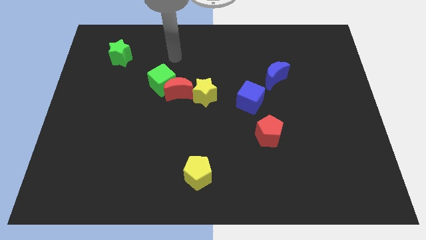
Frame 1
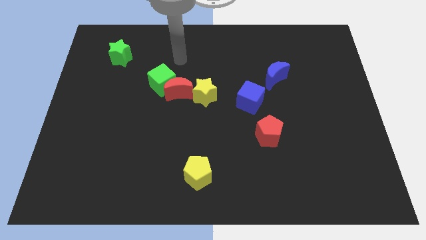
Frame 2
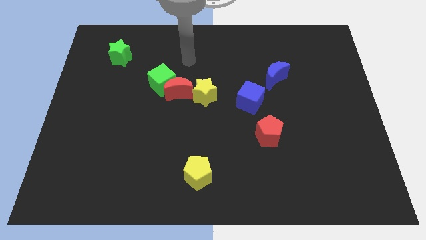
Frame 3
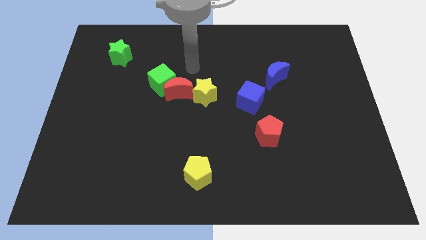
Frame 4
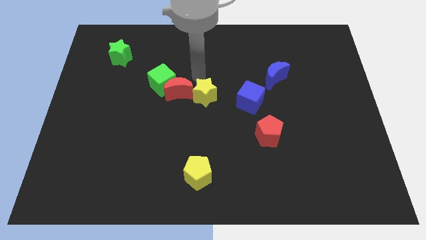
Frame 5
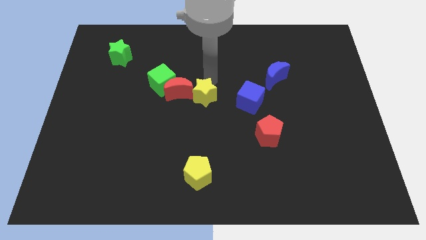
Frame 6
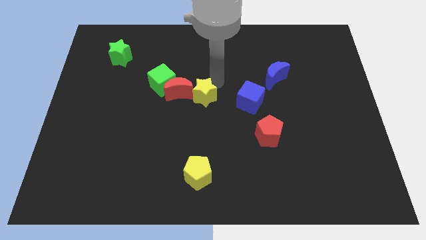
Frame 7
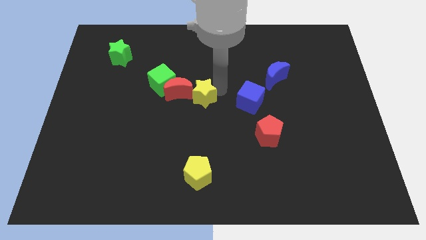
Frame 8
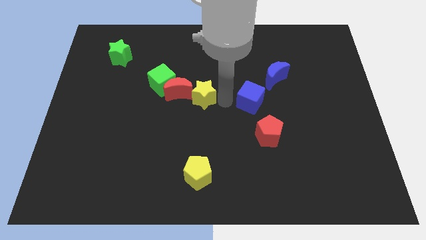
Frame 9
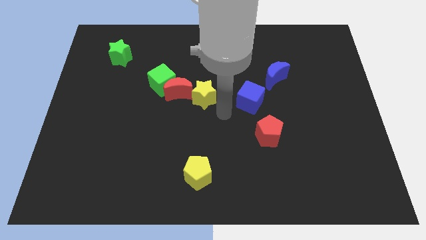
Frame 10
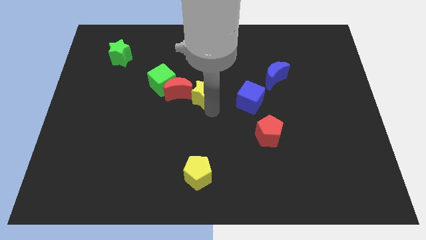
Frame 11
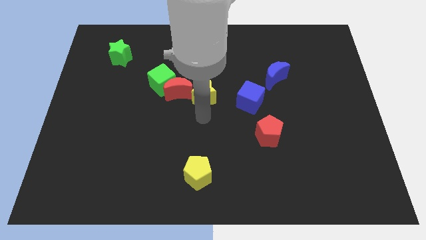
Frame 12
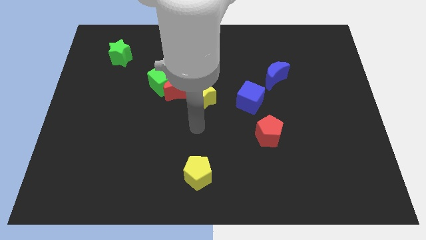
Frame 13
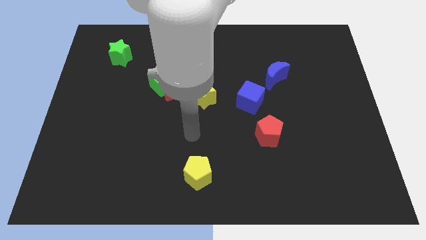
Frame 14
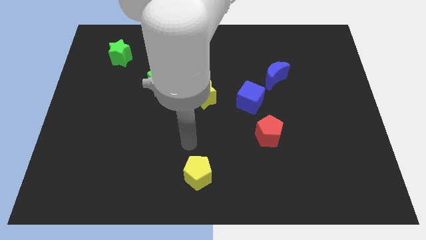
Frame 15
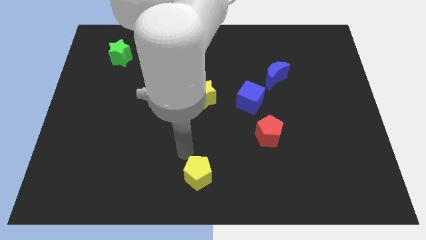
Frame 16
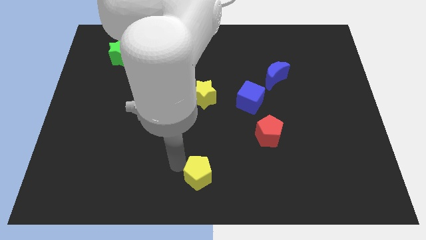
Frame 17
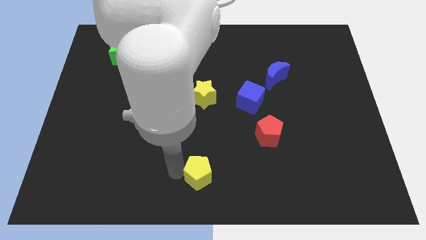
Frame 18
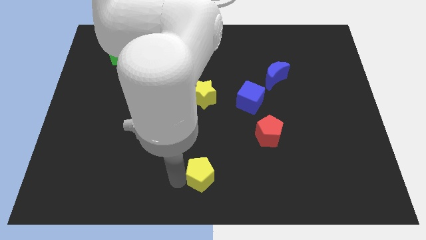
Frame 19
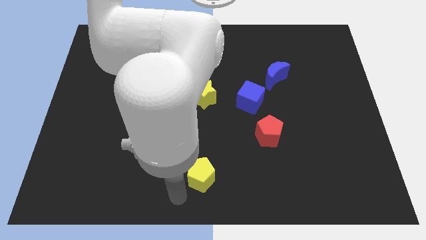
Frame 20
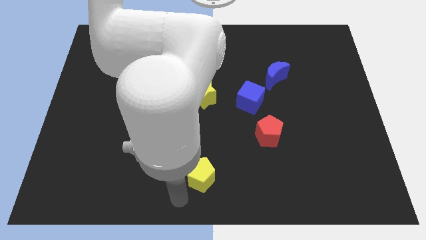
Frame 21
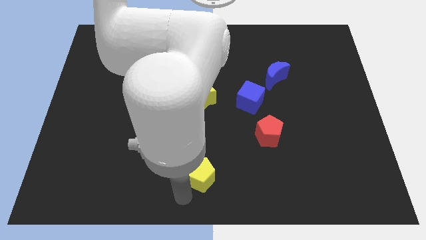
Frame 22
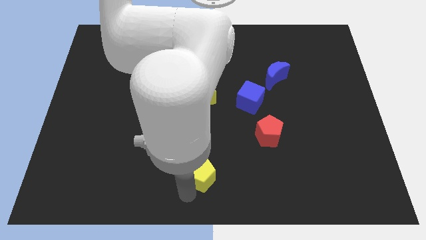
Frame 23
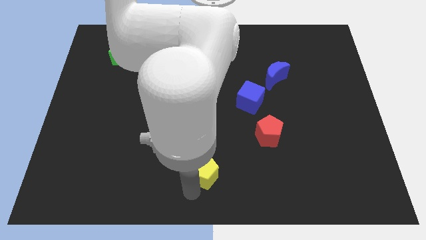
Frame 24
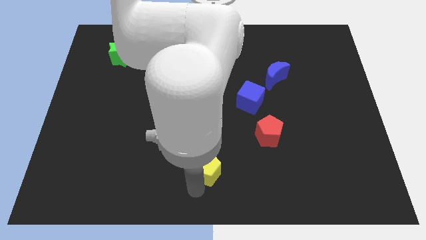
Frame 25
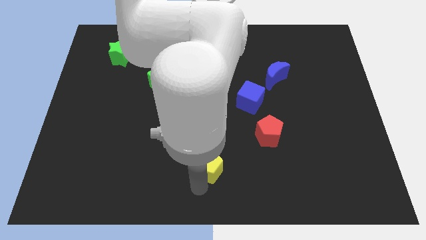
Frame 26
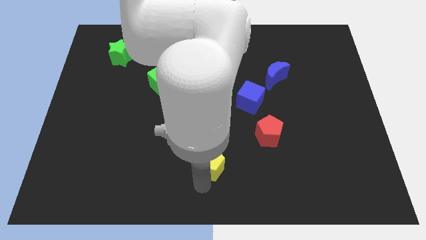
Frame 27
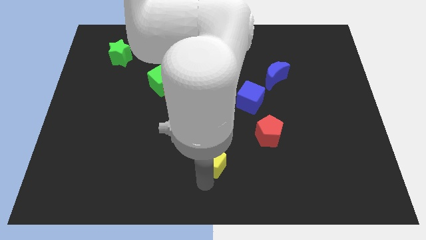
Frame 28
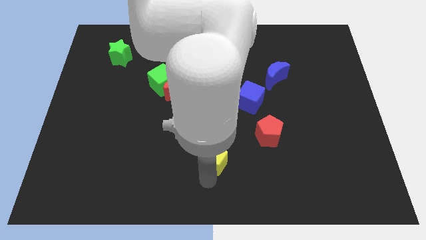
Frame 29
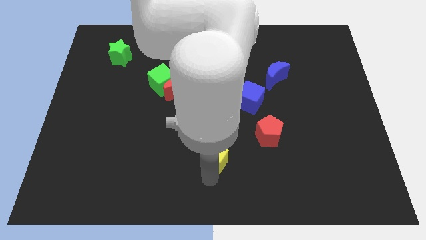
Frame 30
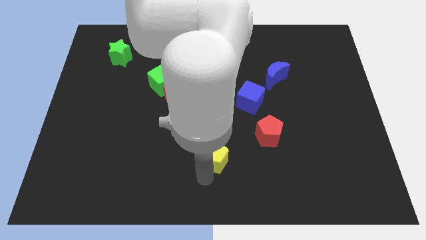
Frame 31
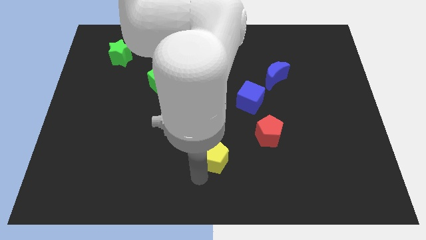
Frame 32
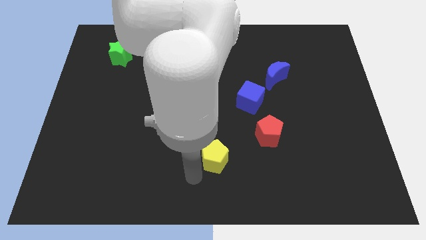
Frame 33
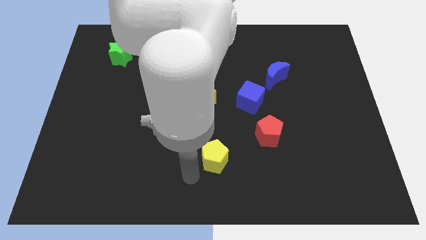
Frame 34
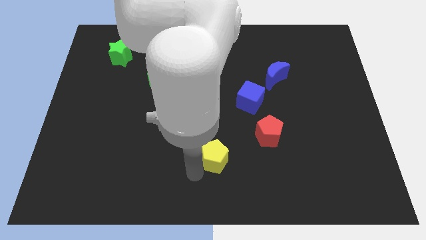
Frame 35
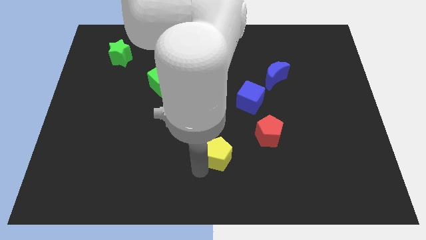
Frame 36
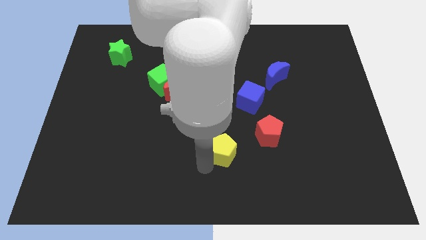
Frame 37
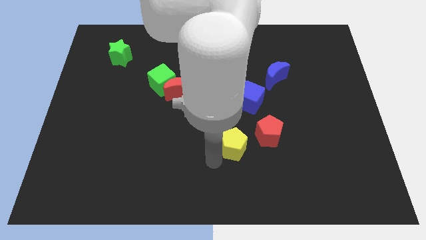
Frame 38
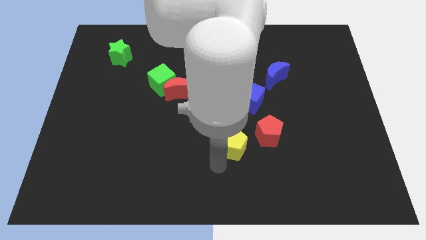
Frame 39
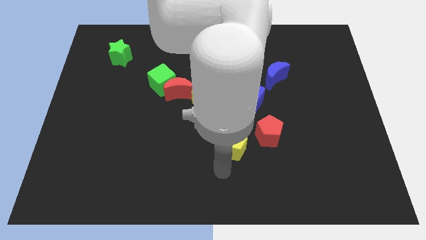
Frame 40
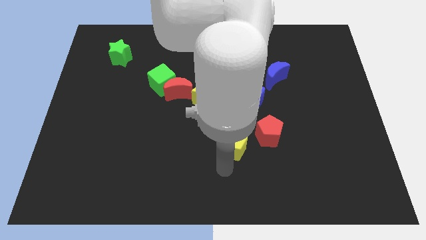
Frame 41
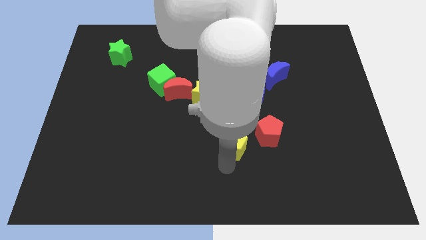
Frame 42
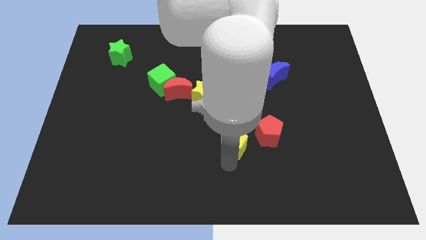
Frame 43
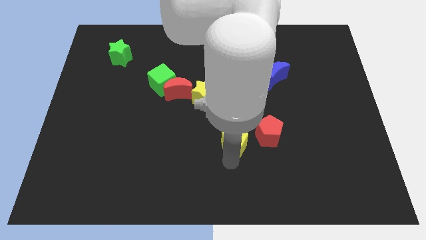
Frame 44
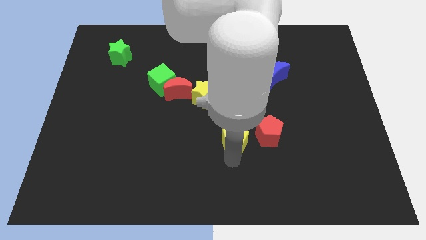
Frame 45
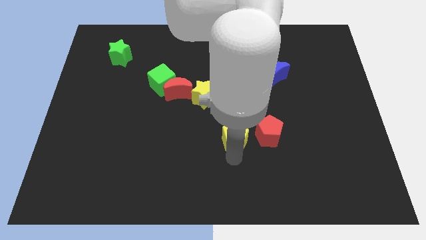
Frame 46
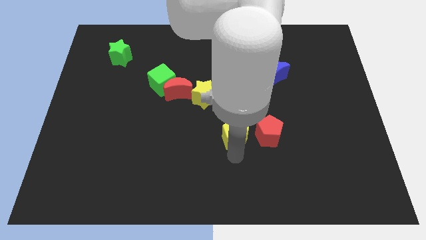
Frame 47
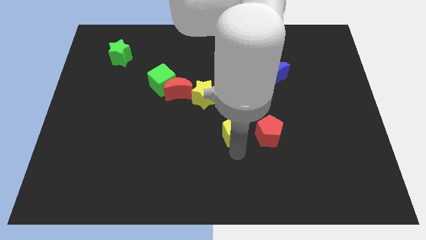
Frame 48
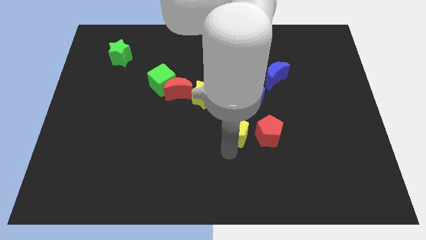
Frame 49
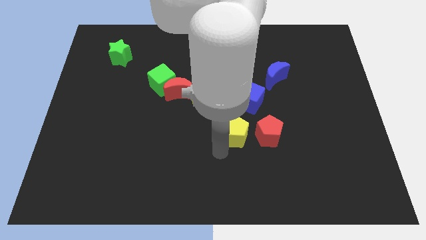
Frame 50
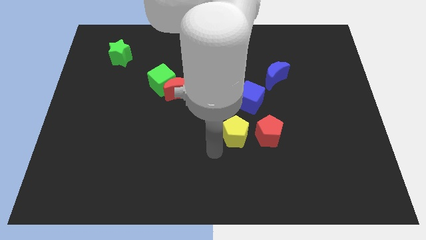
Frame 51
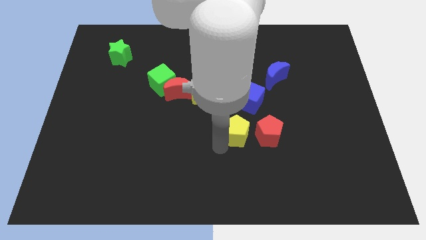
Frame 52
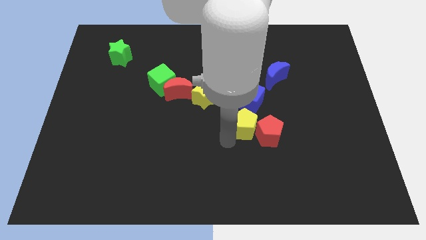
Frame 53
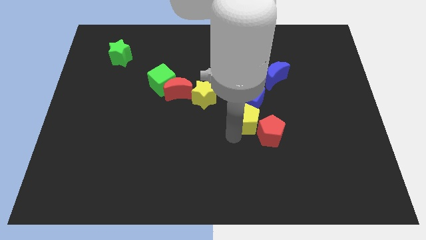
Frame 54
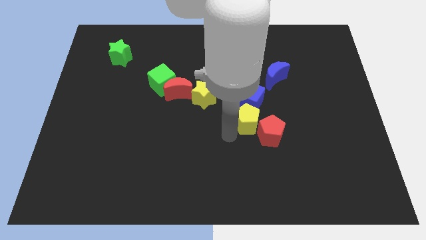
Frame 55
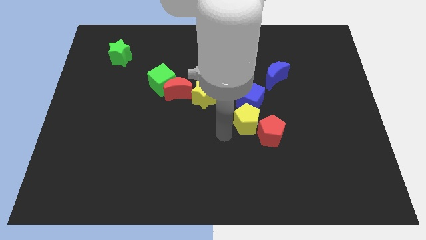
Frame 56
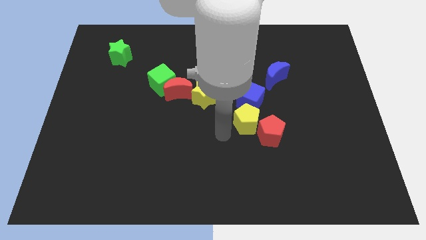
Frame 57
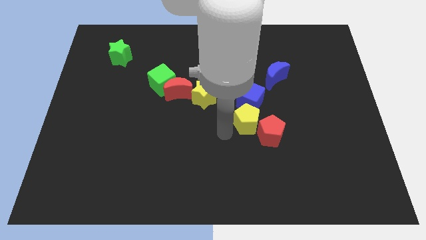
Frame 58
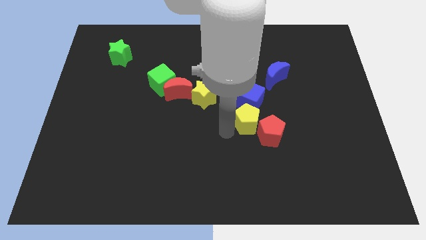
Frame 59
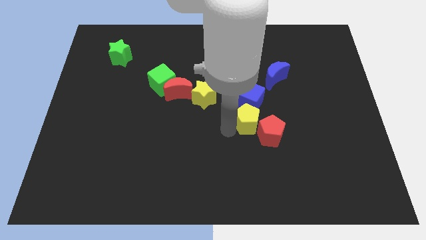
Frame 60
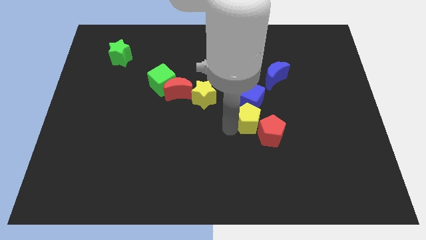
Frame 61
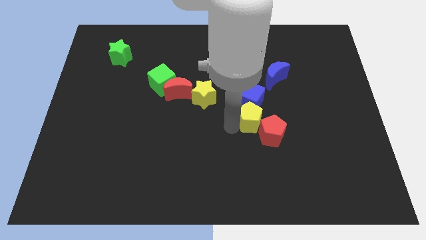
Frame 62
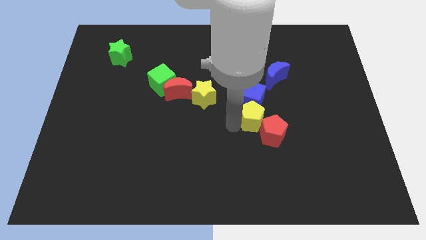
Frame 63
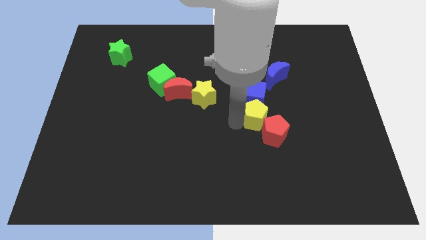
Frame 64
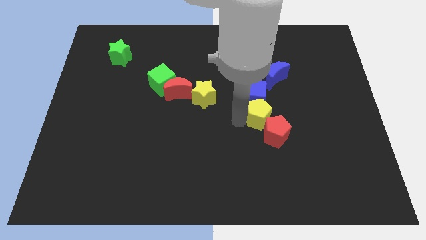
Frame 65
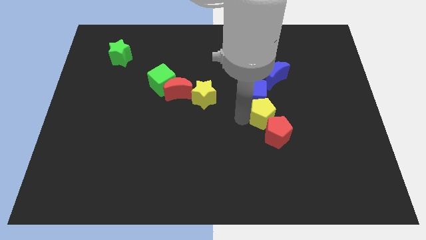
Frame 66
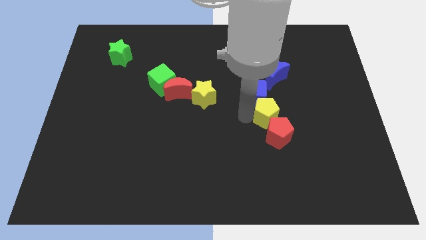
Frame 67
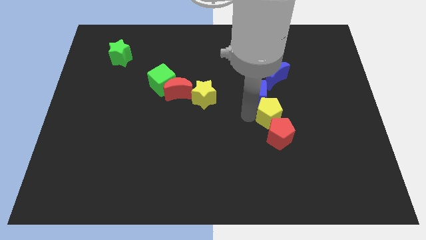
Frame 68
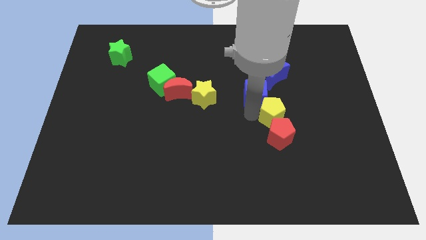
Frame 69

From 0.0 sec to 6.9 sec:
slide the yellow pentagon to the top right of the red pentagon
